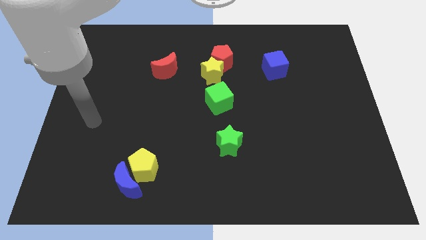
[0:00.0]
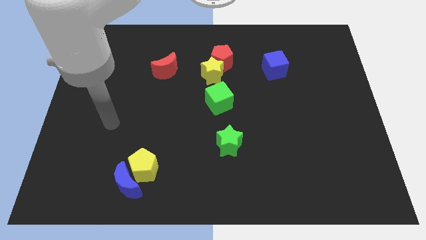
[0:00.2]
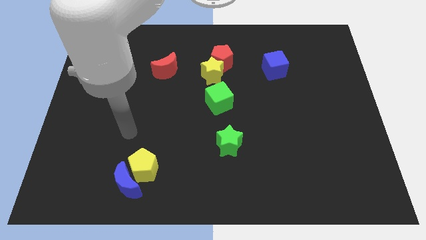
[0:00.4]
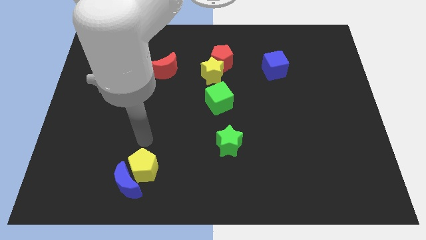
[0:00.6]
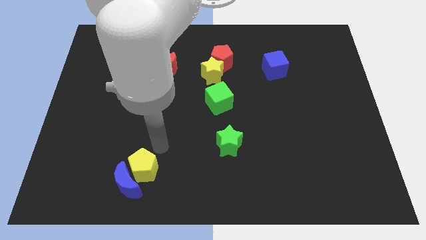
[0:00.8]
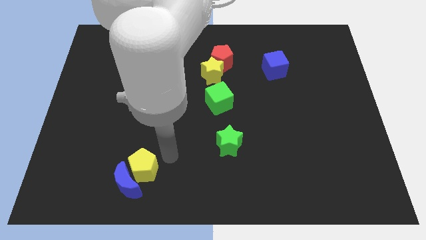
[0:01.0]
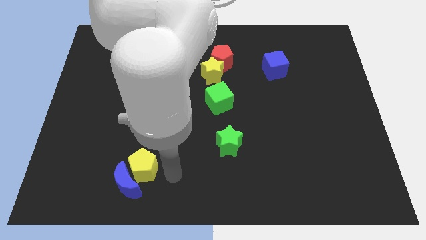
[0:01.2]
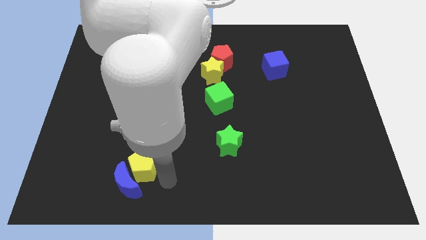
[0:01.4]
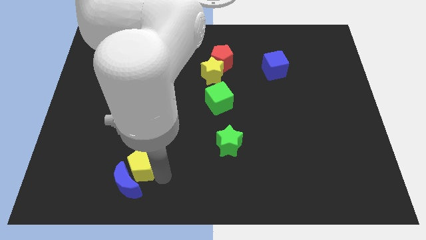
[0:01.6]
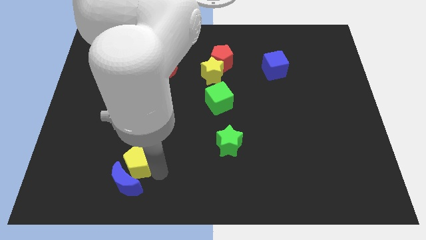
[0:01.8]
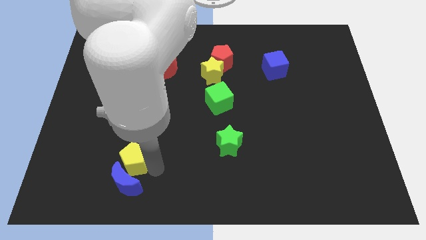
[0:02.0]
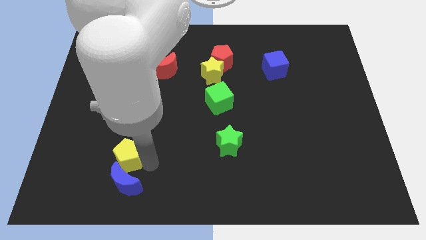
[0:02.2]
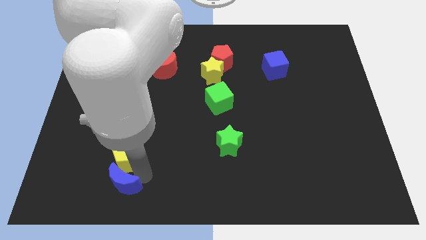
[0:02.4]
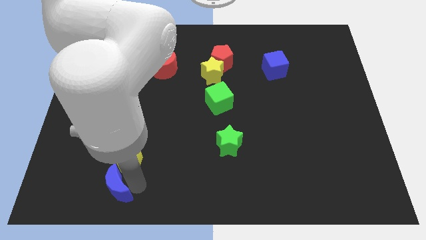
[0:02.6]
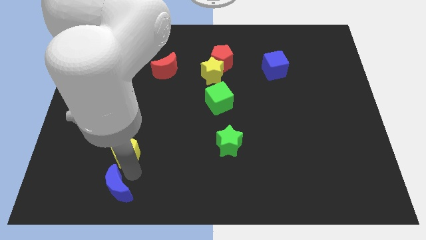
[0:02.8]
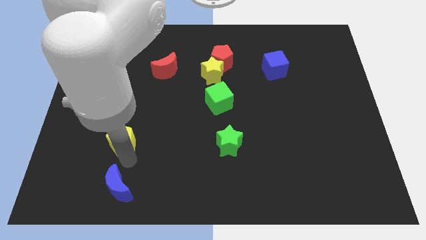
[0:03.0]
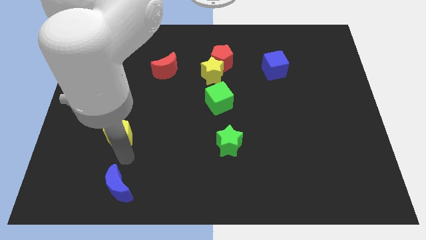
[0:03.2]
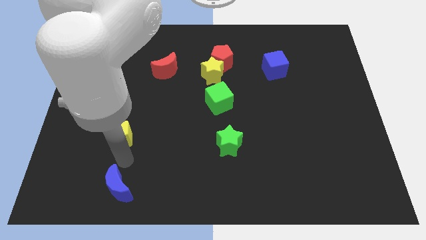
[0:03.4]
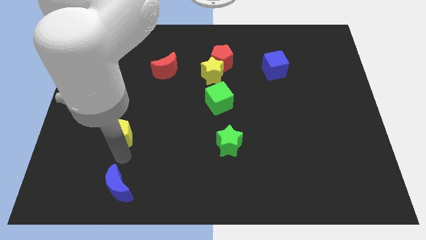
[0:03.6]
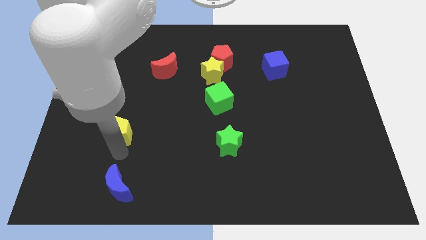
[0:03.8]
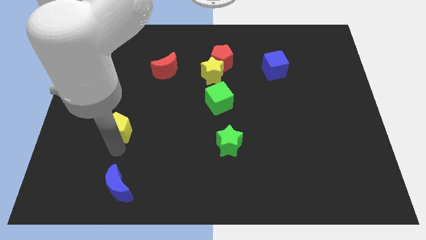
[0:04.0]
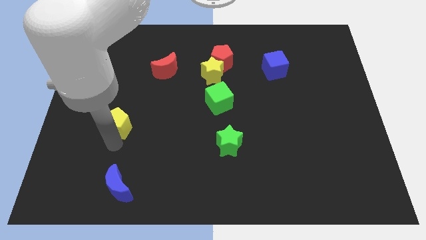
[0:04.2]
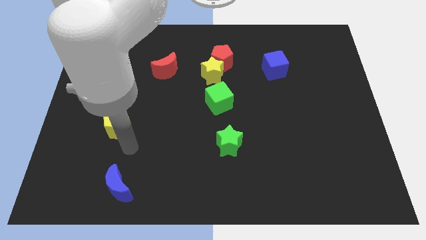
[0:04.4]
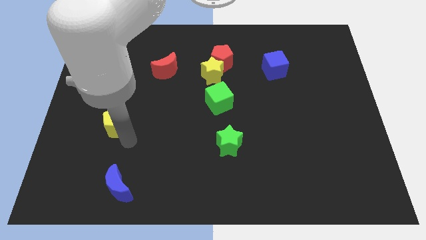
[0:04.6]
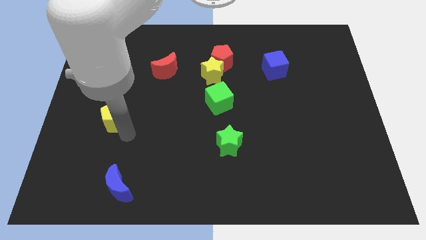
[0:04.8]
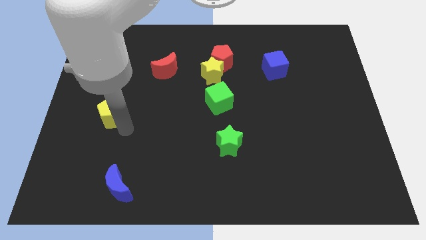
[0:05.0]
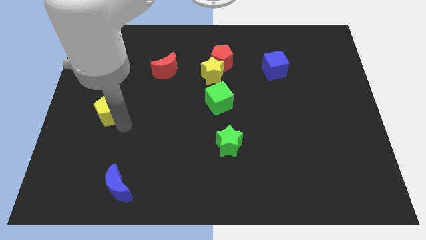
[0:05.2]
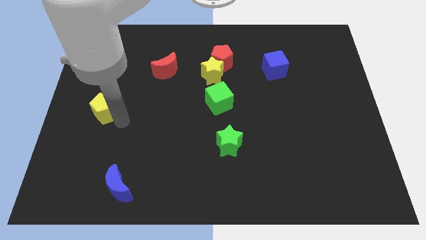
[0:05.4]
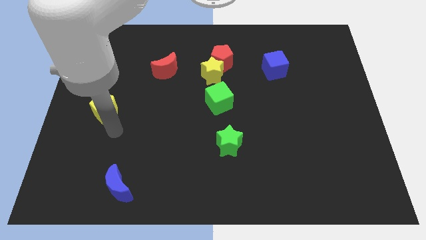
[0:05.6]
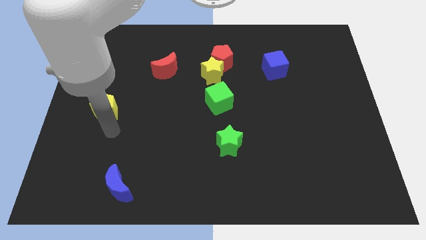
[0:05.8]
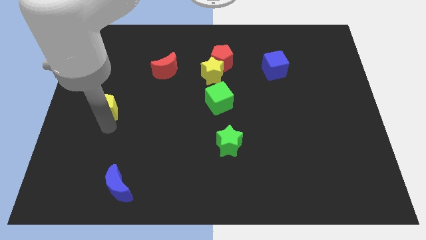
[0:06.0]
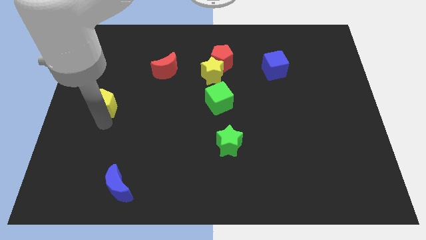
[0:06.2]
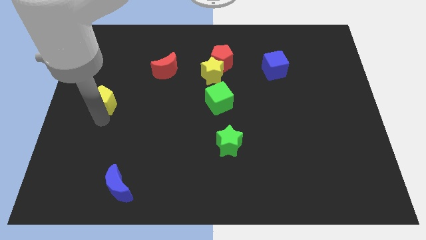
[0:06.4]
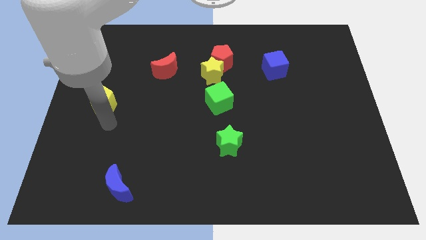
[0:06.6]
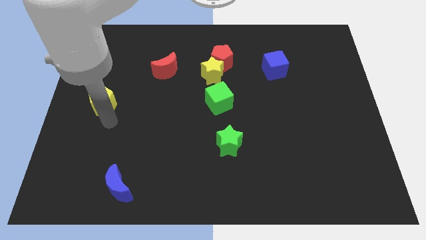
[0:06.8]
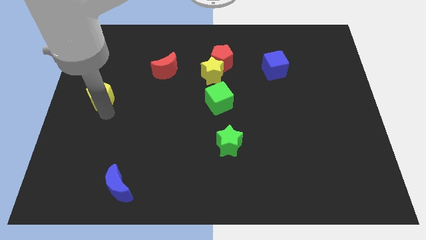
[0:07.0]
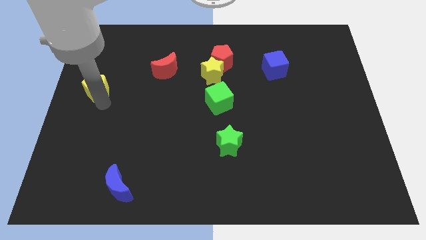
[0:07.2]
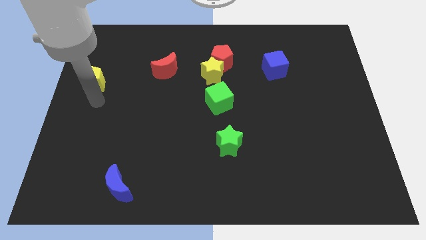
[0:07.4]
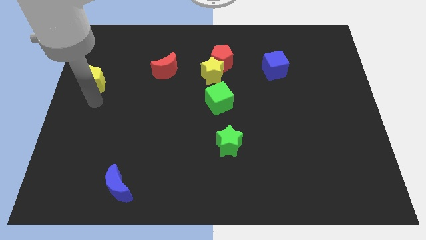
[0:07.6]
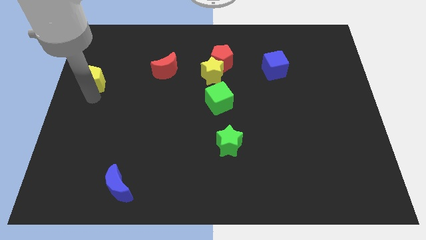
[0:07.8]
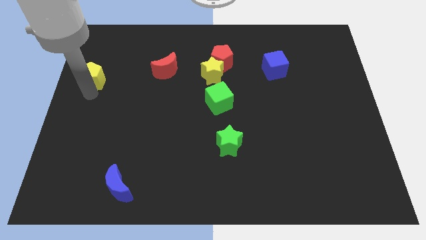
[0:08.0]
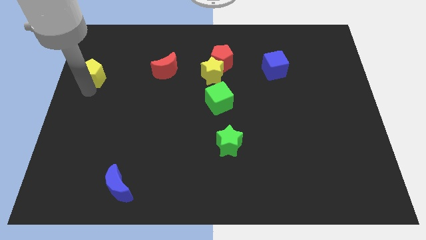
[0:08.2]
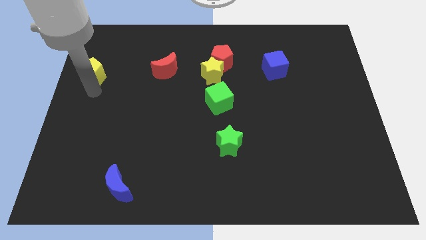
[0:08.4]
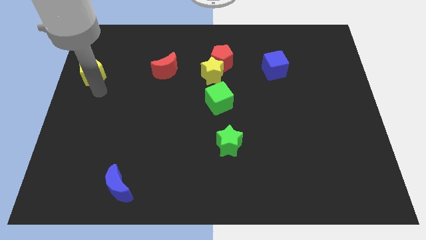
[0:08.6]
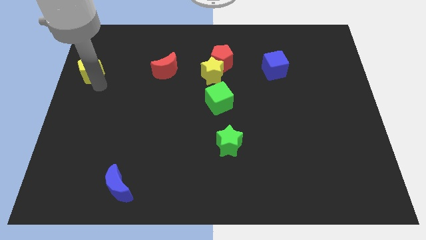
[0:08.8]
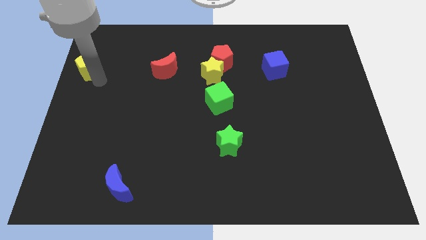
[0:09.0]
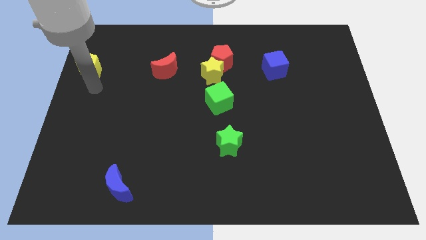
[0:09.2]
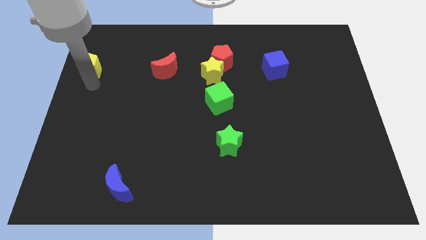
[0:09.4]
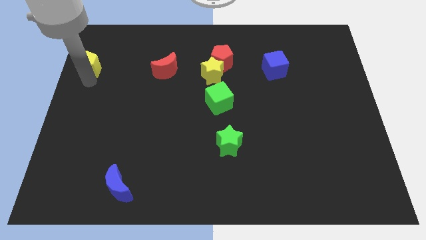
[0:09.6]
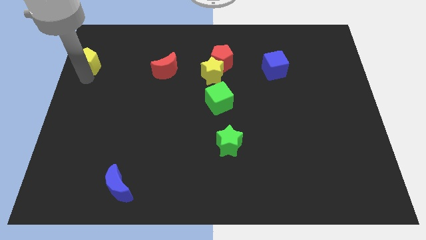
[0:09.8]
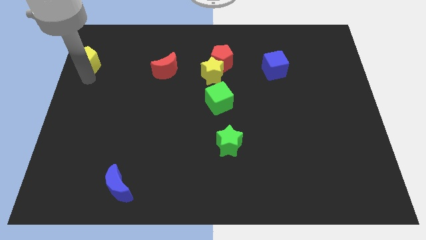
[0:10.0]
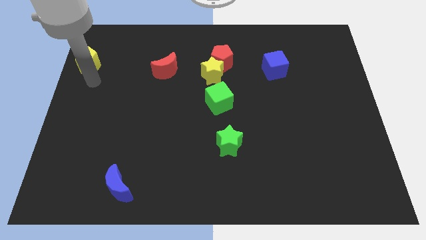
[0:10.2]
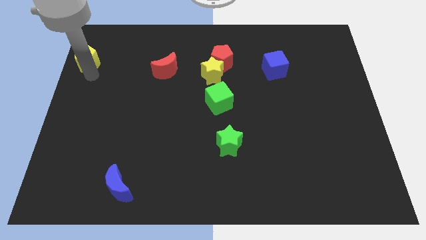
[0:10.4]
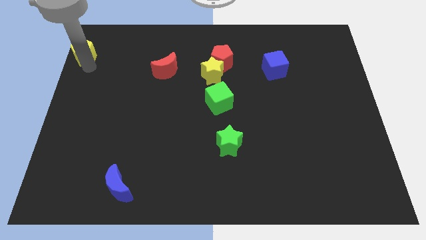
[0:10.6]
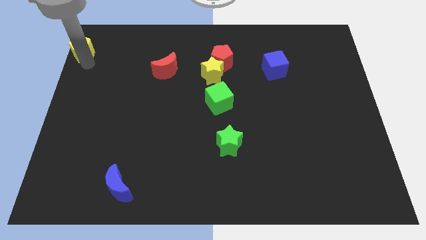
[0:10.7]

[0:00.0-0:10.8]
move the yellow pentagon to the top left of the board

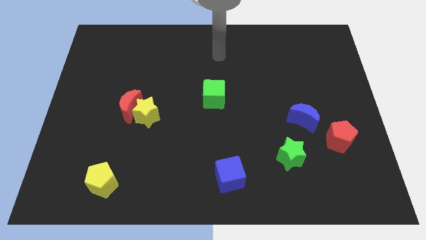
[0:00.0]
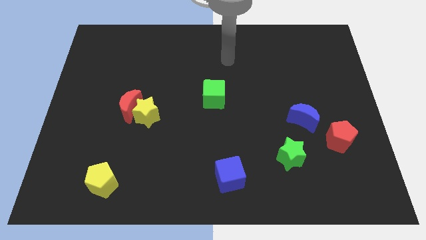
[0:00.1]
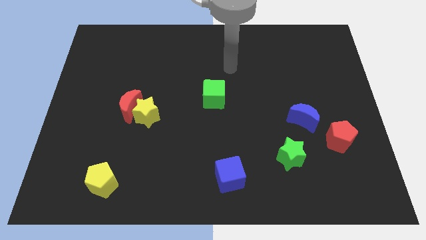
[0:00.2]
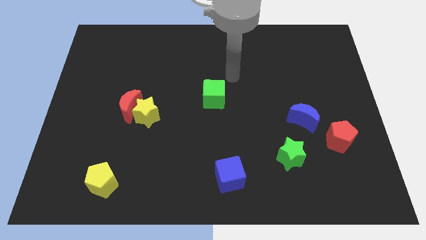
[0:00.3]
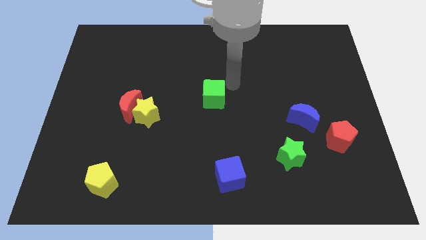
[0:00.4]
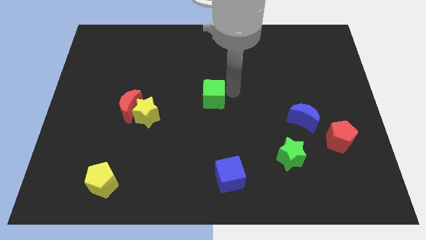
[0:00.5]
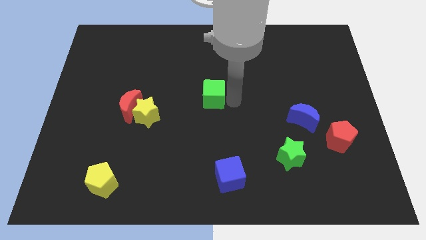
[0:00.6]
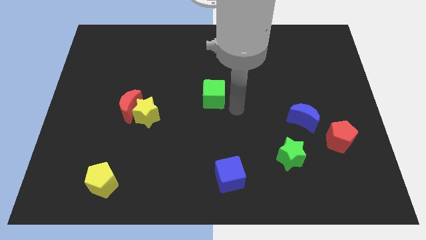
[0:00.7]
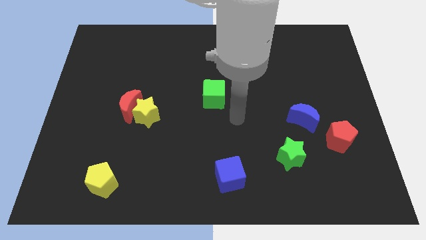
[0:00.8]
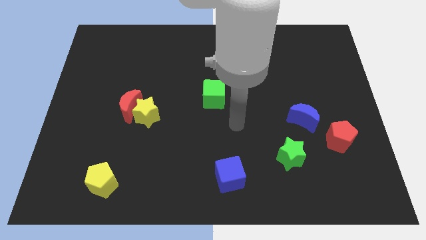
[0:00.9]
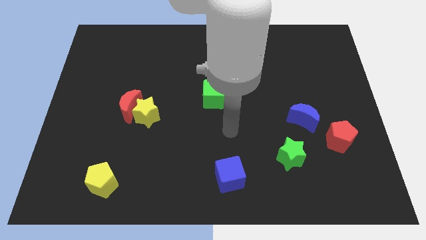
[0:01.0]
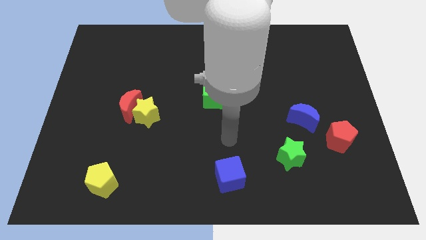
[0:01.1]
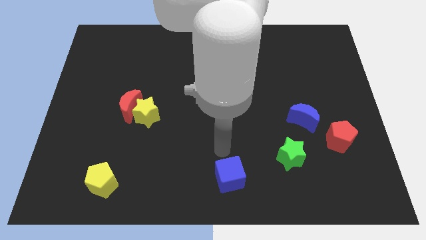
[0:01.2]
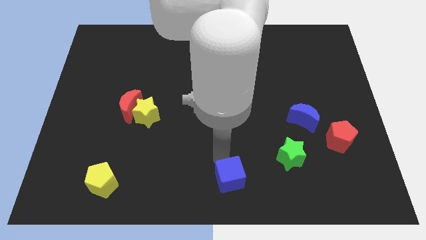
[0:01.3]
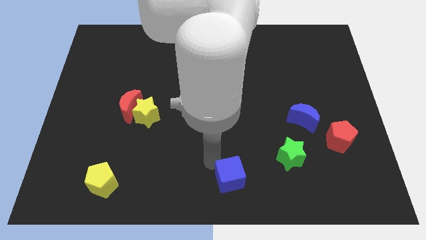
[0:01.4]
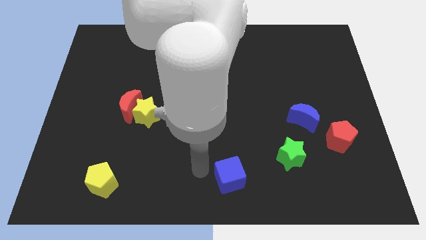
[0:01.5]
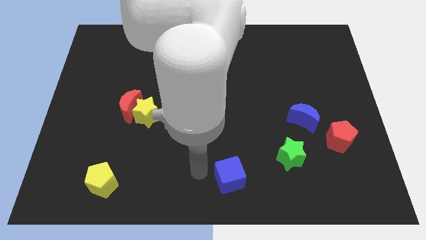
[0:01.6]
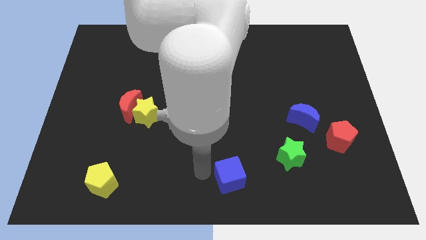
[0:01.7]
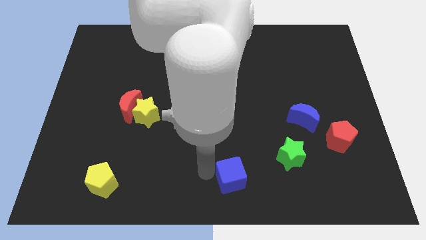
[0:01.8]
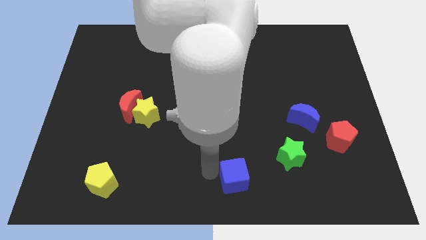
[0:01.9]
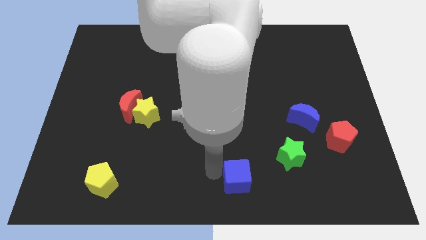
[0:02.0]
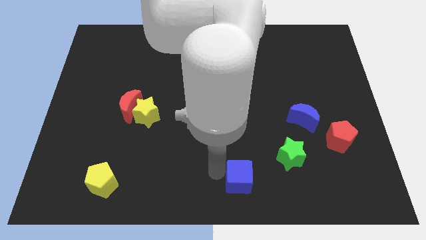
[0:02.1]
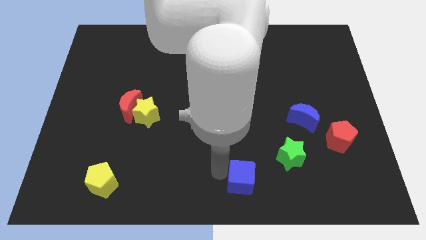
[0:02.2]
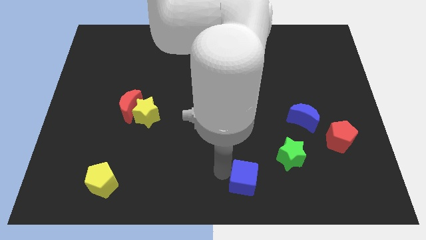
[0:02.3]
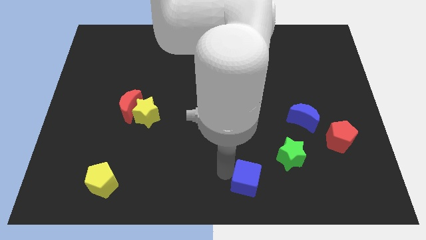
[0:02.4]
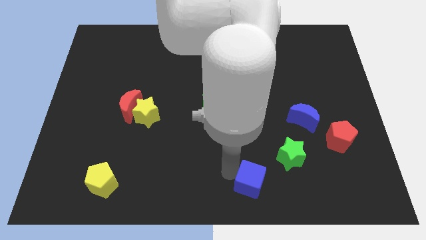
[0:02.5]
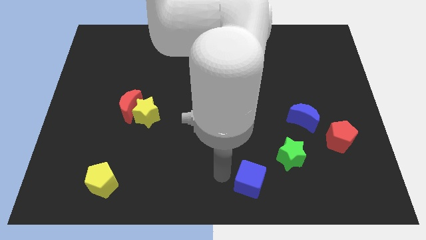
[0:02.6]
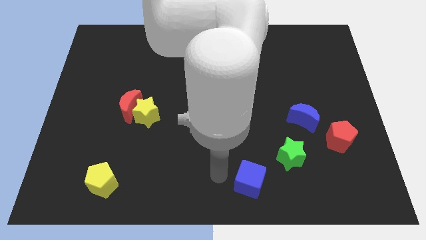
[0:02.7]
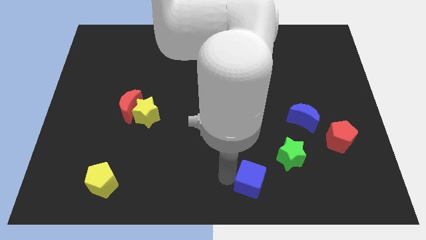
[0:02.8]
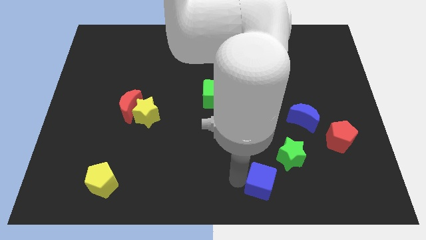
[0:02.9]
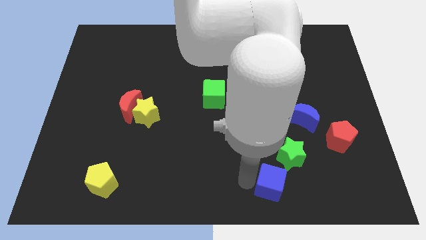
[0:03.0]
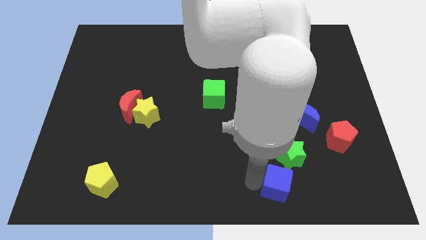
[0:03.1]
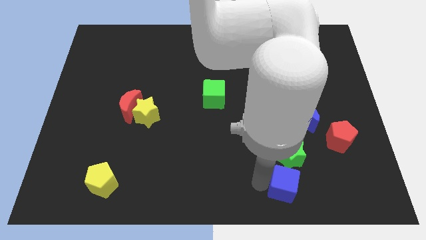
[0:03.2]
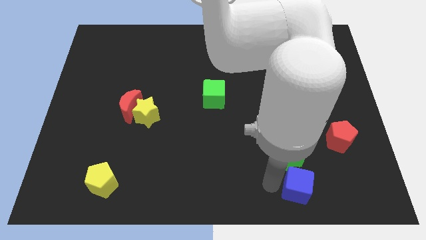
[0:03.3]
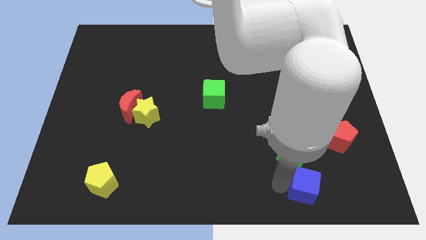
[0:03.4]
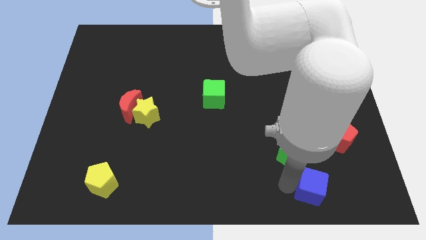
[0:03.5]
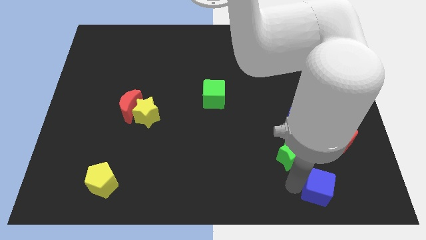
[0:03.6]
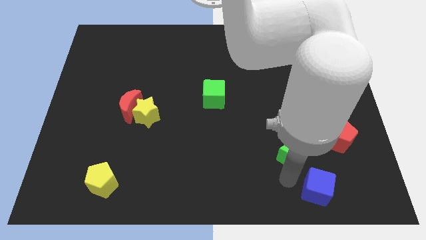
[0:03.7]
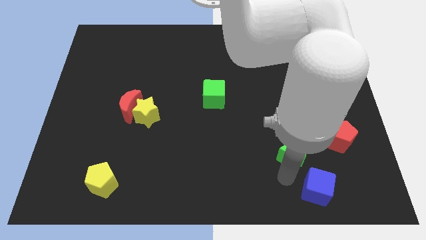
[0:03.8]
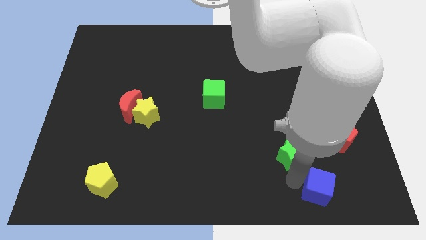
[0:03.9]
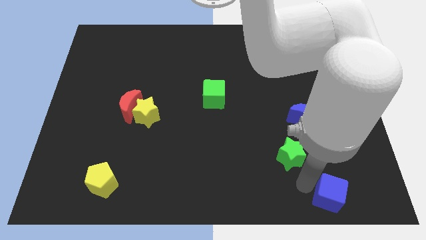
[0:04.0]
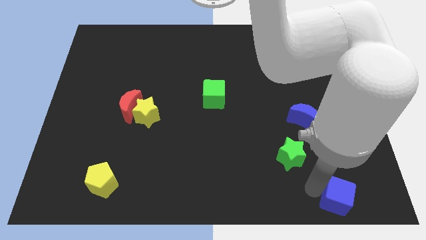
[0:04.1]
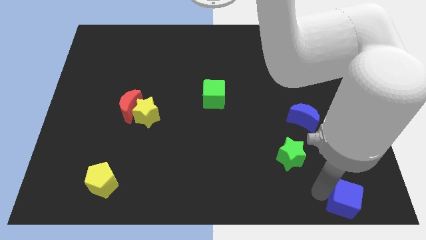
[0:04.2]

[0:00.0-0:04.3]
move the blue cube to the bottom right corner
